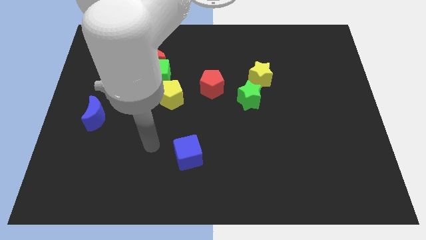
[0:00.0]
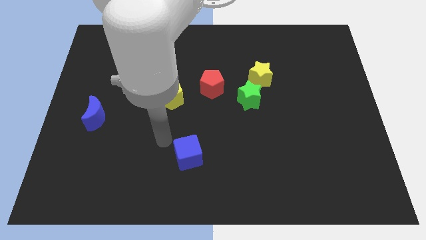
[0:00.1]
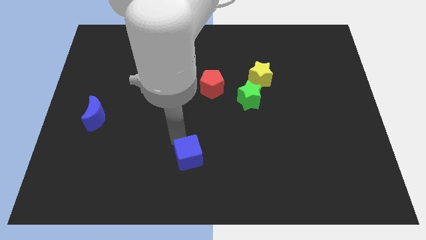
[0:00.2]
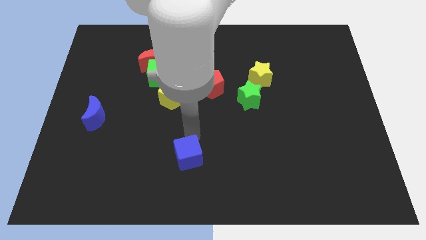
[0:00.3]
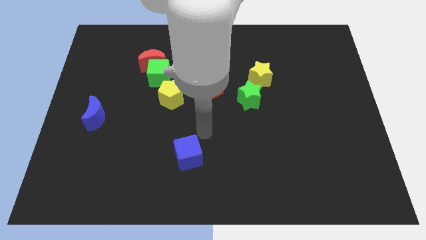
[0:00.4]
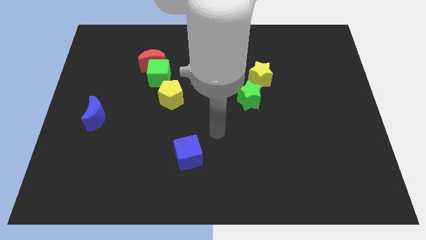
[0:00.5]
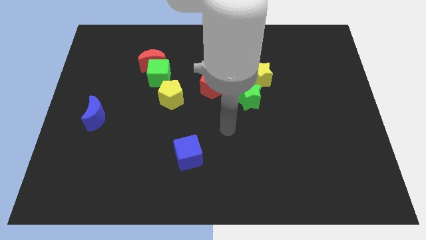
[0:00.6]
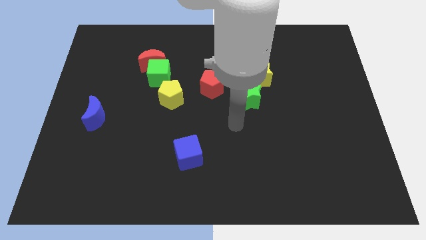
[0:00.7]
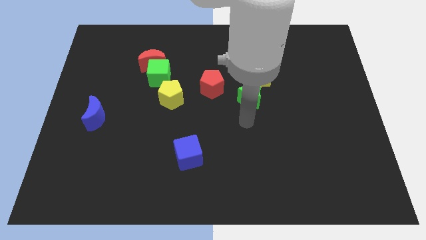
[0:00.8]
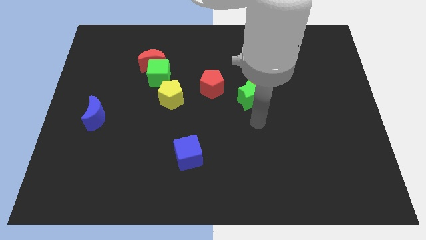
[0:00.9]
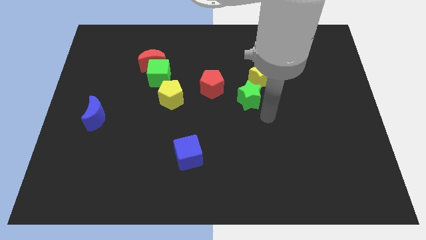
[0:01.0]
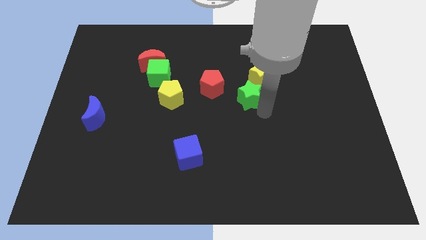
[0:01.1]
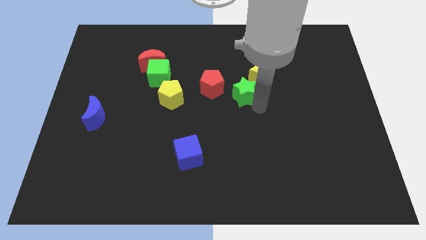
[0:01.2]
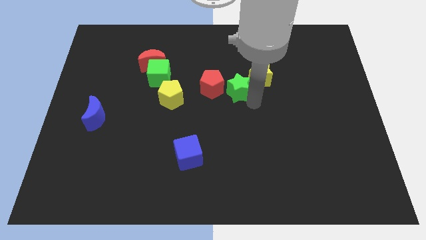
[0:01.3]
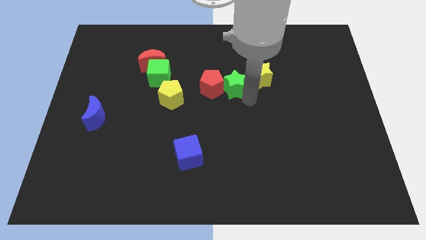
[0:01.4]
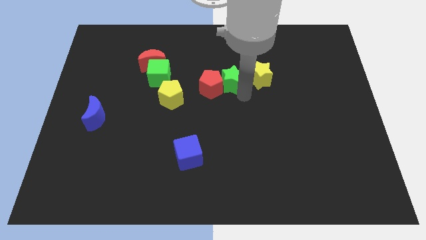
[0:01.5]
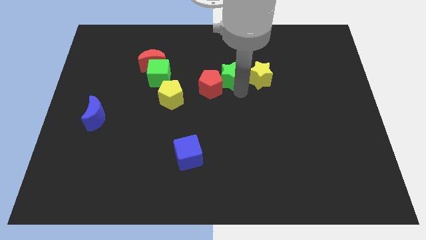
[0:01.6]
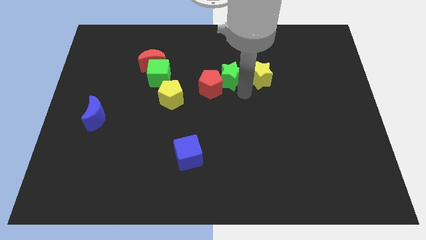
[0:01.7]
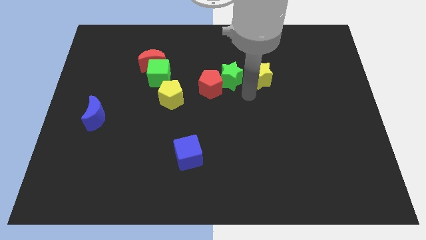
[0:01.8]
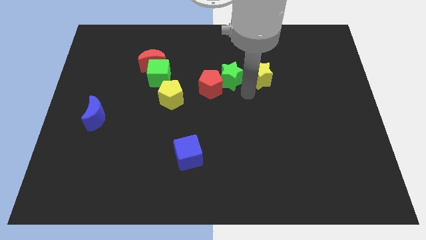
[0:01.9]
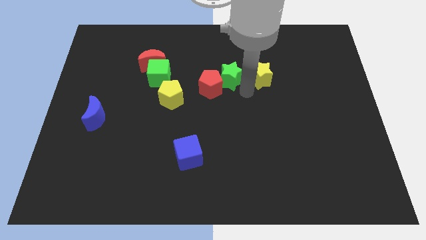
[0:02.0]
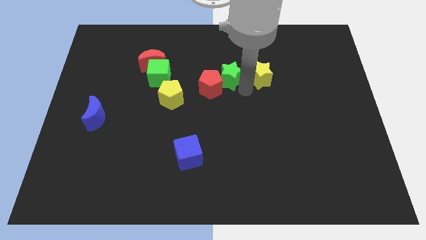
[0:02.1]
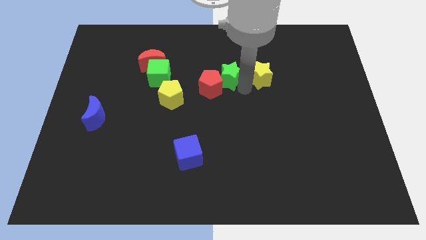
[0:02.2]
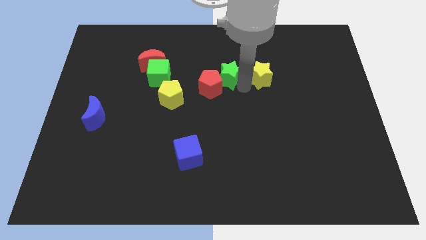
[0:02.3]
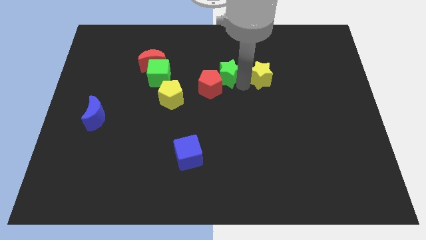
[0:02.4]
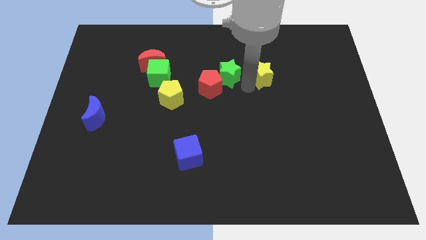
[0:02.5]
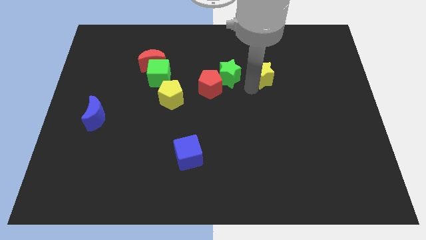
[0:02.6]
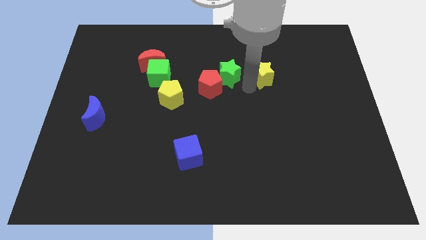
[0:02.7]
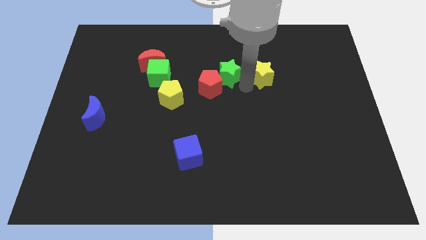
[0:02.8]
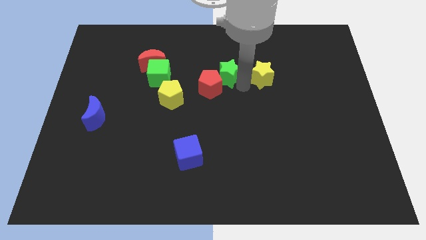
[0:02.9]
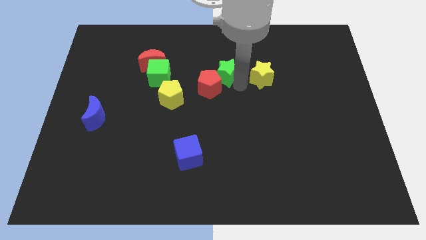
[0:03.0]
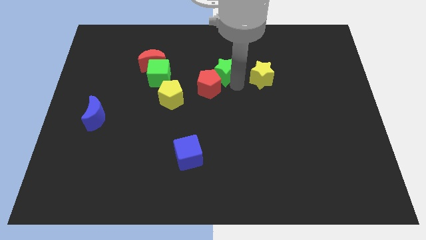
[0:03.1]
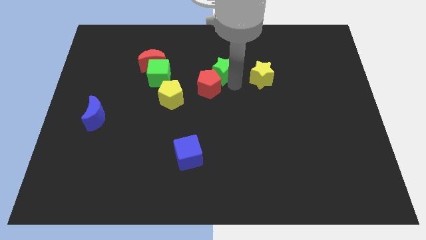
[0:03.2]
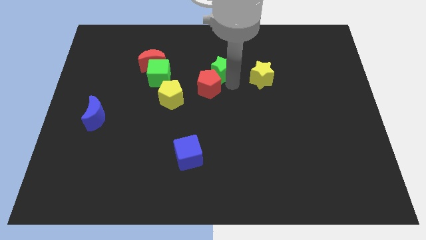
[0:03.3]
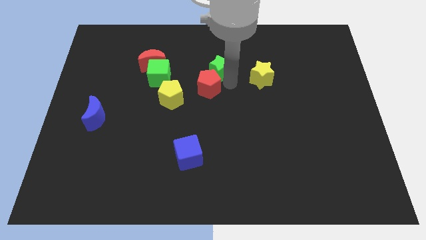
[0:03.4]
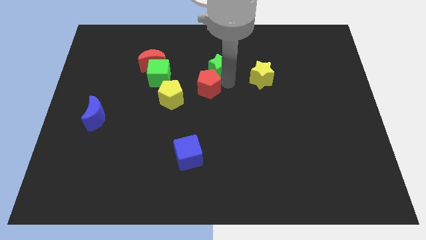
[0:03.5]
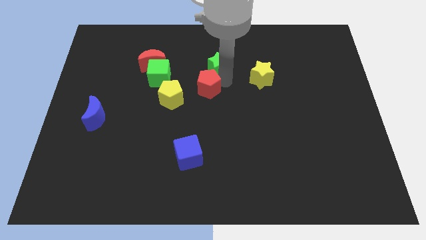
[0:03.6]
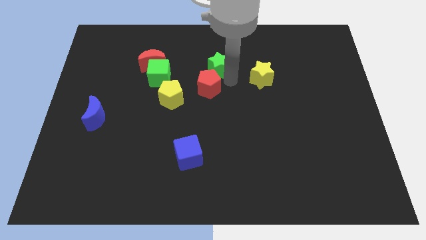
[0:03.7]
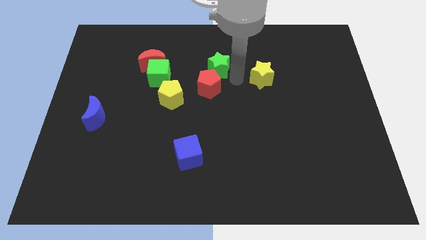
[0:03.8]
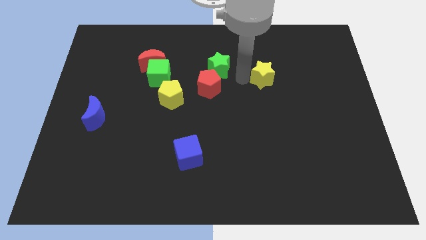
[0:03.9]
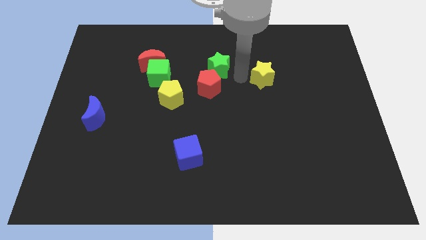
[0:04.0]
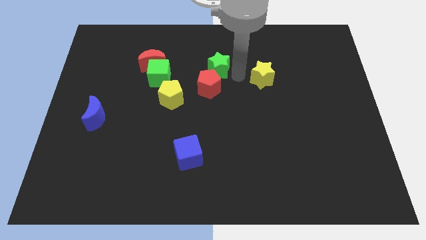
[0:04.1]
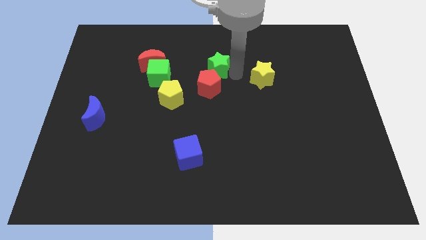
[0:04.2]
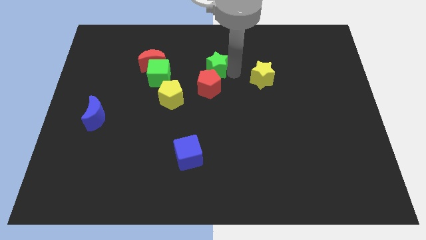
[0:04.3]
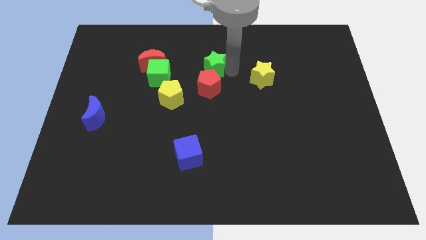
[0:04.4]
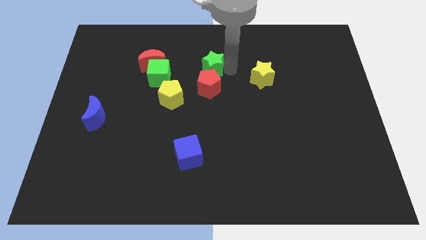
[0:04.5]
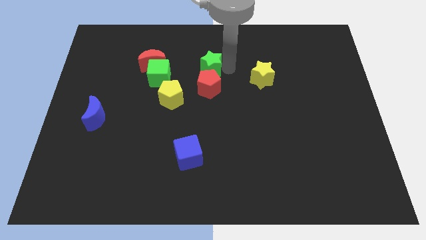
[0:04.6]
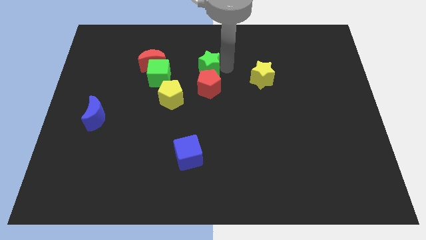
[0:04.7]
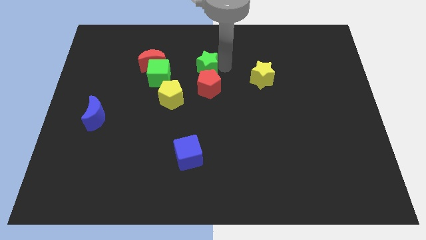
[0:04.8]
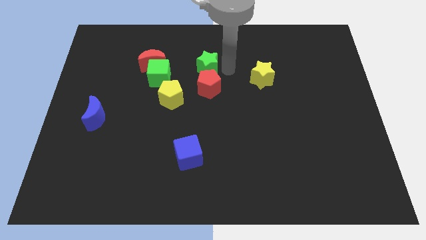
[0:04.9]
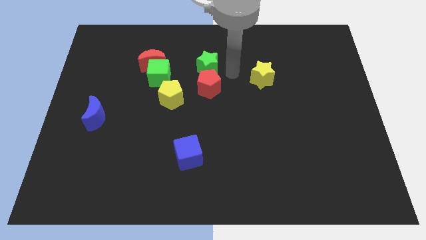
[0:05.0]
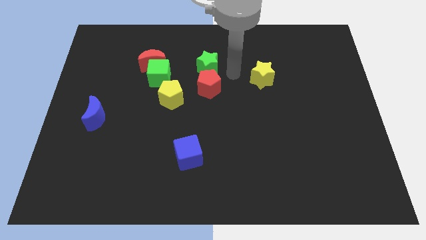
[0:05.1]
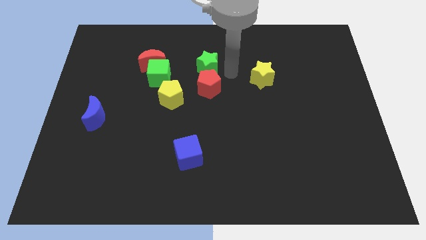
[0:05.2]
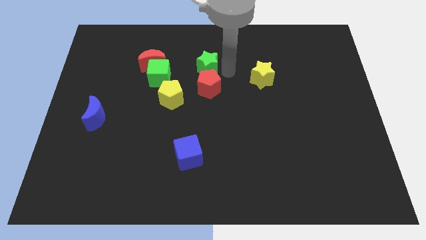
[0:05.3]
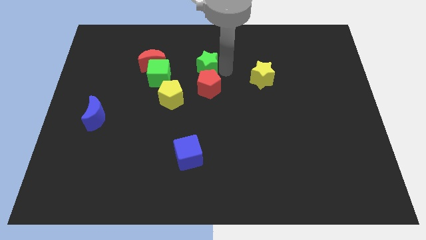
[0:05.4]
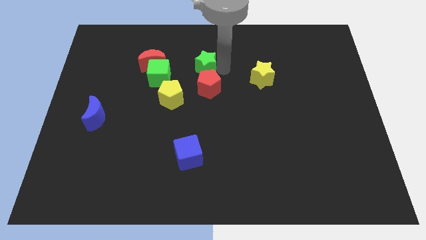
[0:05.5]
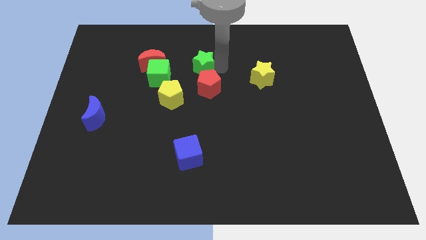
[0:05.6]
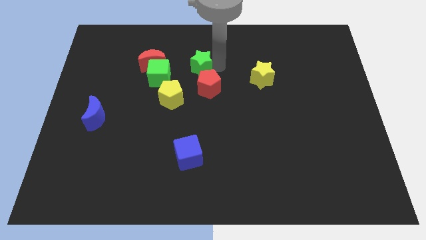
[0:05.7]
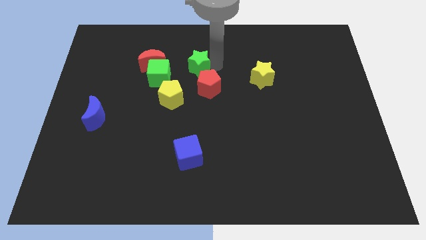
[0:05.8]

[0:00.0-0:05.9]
push the green star to the top right side of the green cube

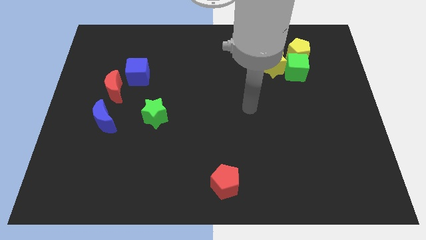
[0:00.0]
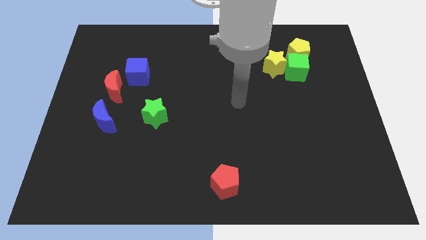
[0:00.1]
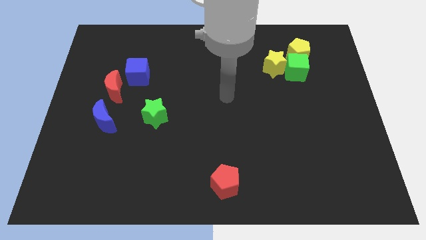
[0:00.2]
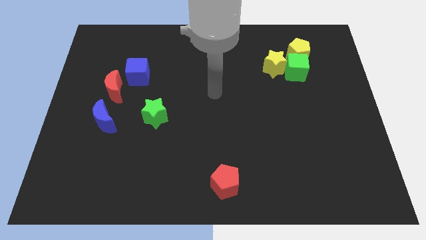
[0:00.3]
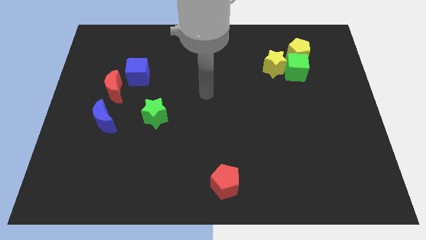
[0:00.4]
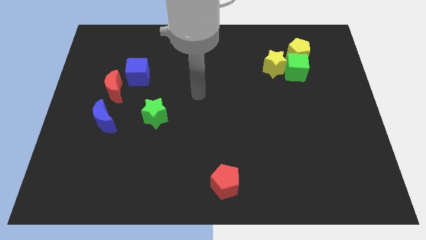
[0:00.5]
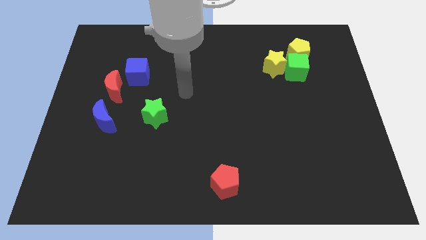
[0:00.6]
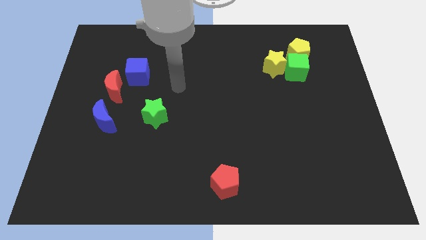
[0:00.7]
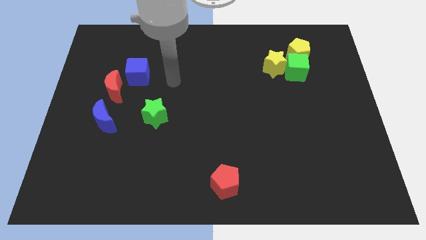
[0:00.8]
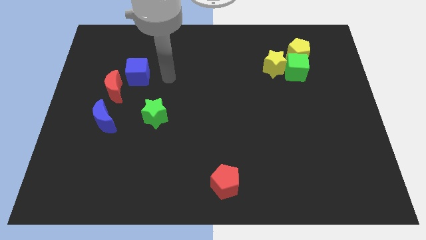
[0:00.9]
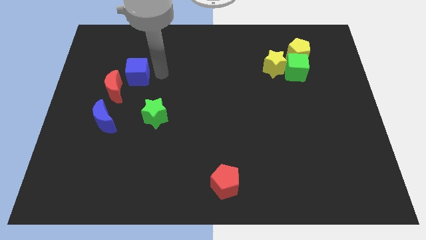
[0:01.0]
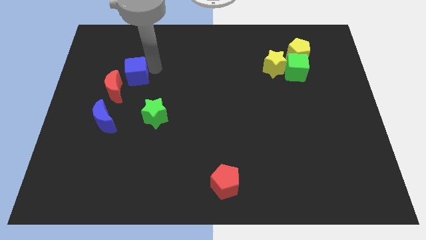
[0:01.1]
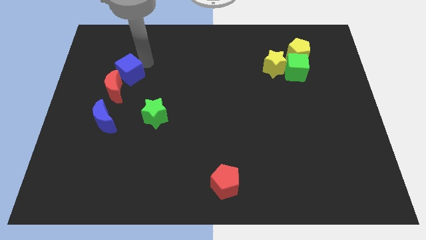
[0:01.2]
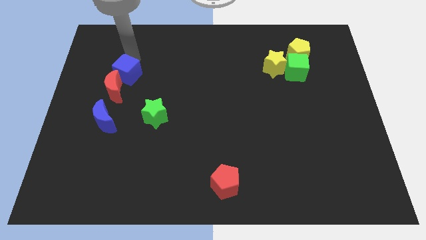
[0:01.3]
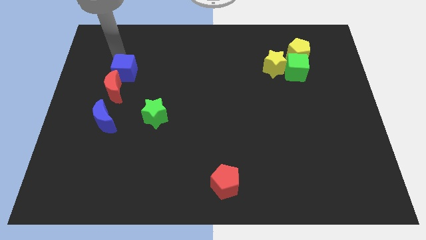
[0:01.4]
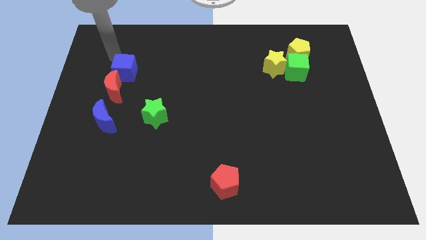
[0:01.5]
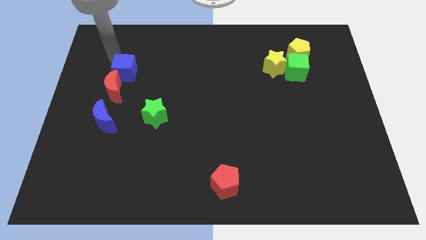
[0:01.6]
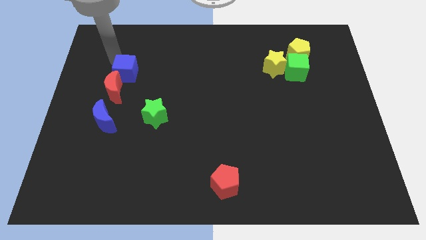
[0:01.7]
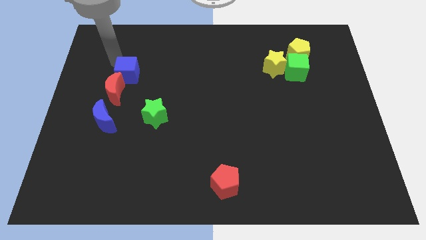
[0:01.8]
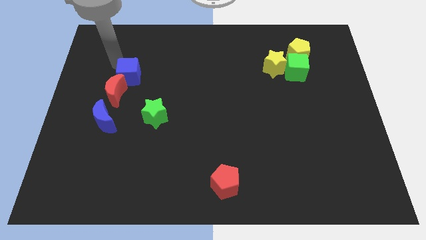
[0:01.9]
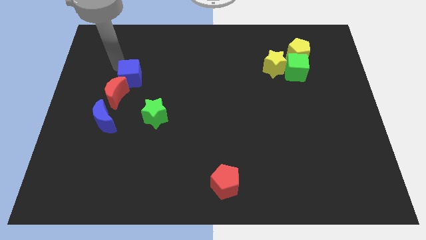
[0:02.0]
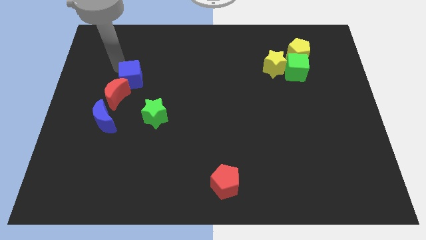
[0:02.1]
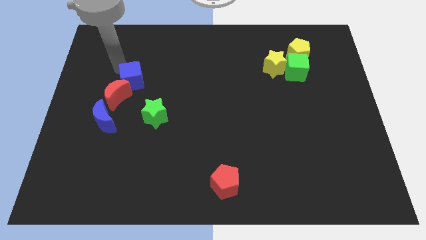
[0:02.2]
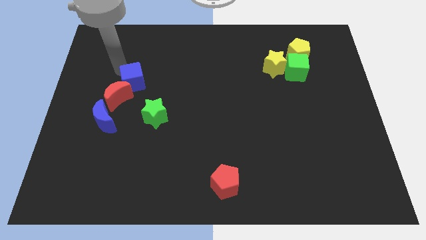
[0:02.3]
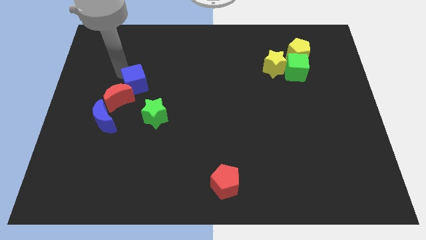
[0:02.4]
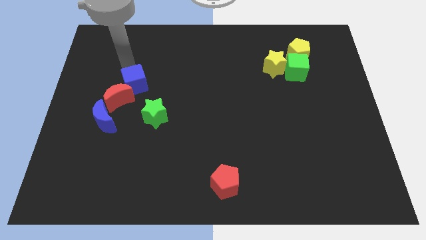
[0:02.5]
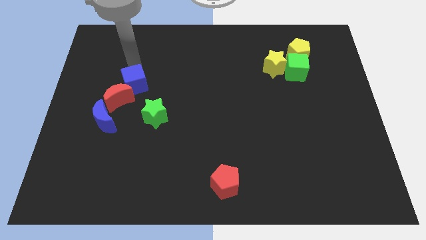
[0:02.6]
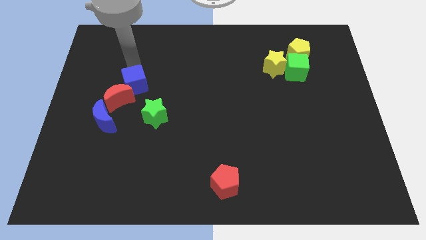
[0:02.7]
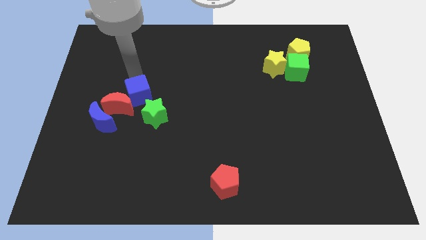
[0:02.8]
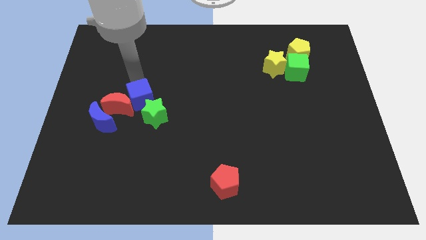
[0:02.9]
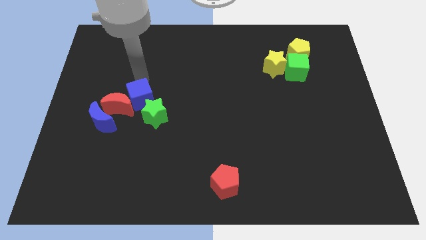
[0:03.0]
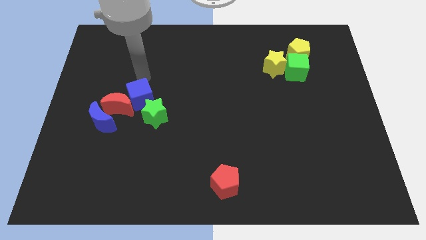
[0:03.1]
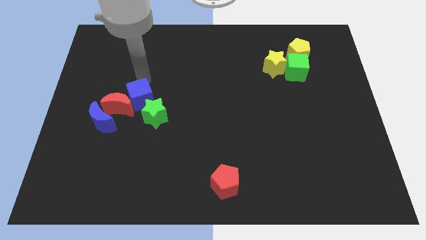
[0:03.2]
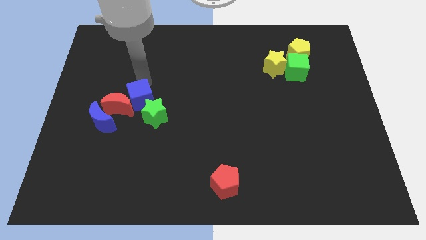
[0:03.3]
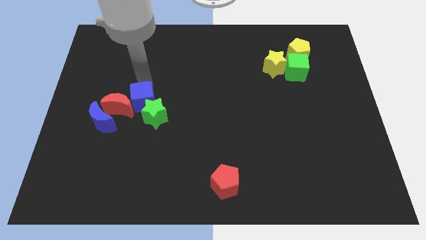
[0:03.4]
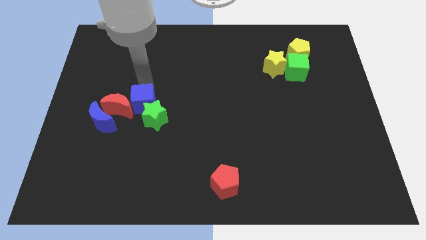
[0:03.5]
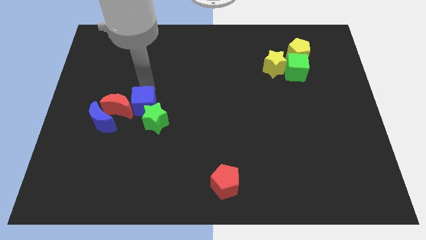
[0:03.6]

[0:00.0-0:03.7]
slide the blue cube to the bottom right of the red moon
